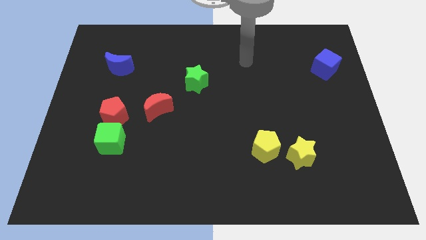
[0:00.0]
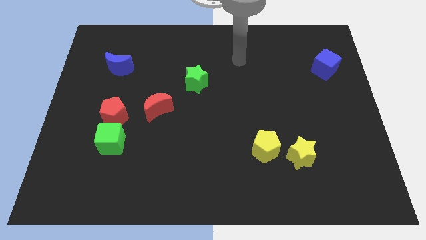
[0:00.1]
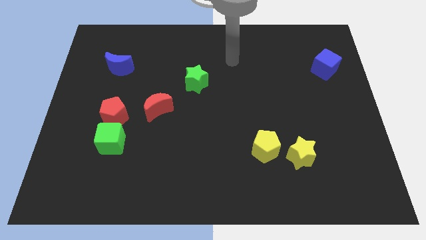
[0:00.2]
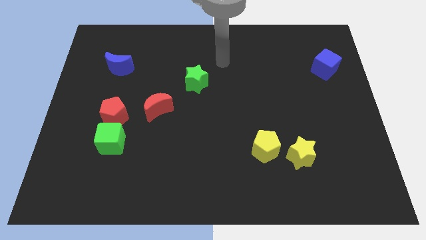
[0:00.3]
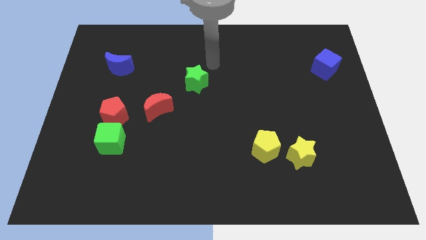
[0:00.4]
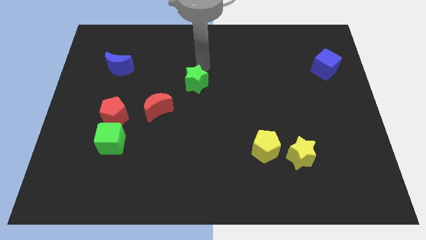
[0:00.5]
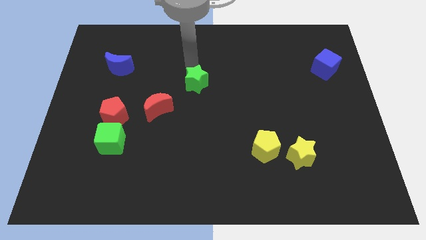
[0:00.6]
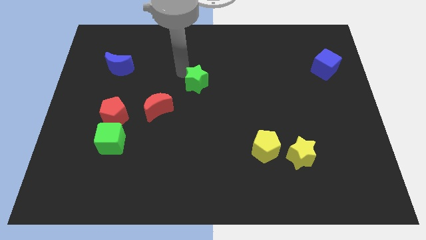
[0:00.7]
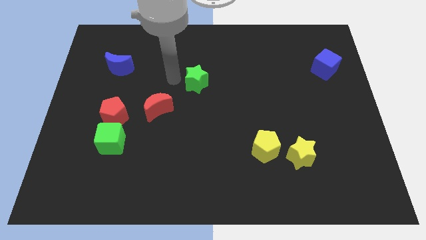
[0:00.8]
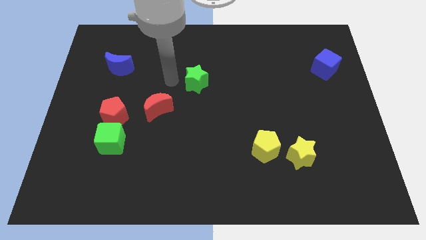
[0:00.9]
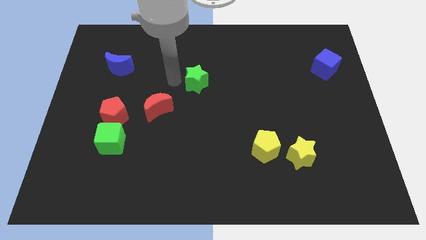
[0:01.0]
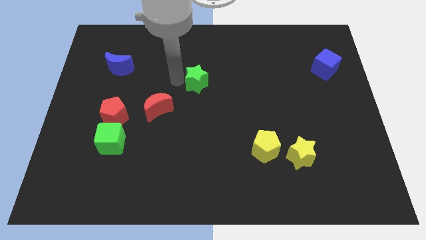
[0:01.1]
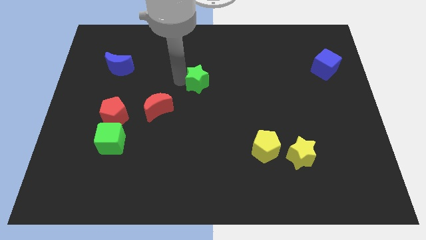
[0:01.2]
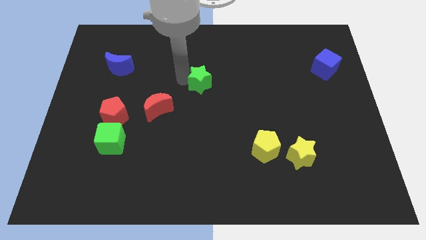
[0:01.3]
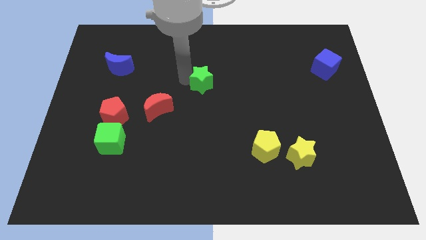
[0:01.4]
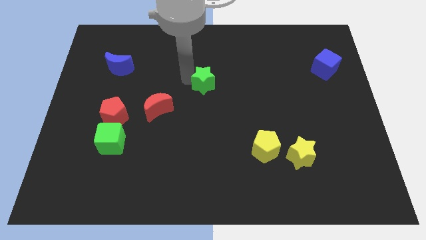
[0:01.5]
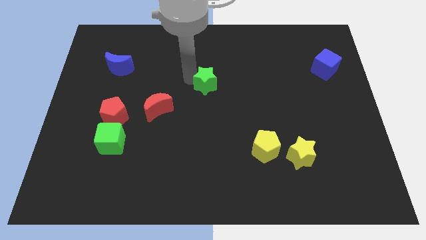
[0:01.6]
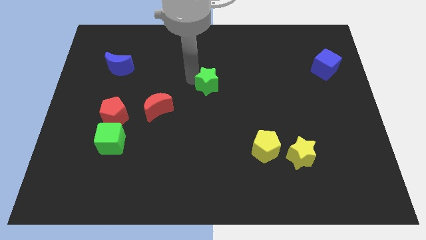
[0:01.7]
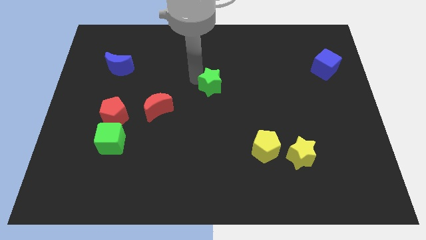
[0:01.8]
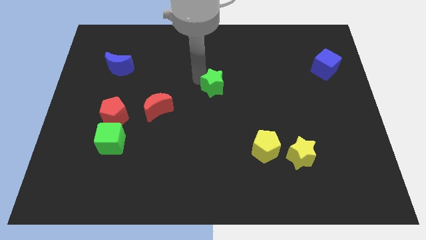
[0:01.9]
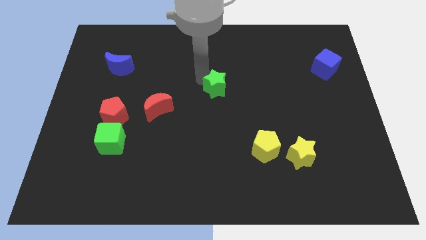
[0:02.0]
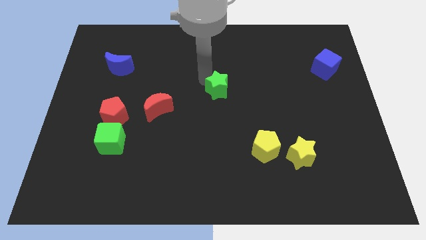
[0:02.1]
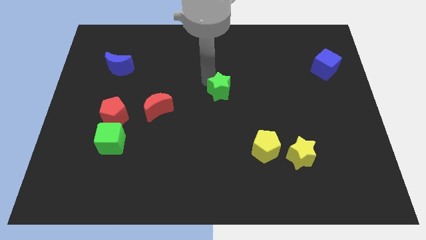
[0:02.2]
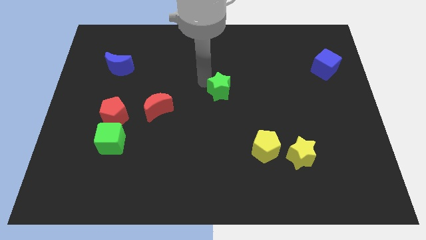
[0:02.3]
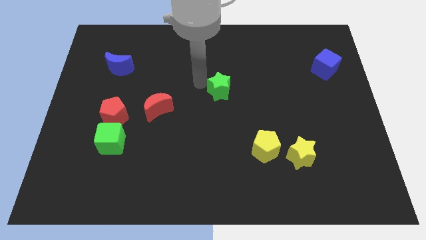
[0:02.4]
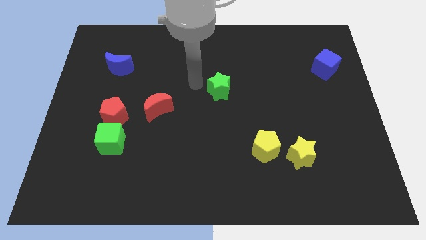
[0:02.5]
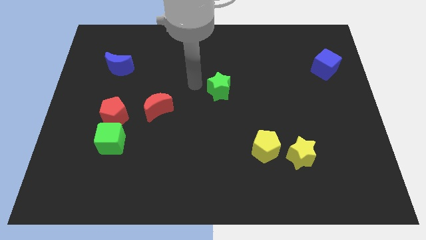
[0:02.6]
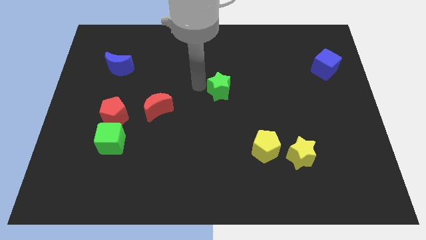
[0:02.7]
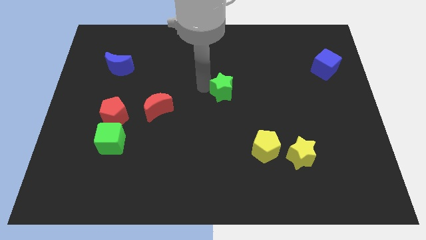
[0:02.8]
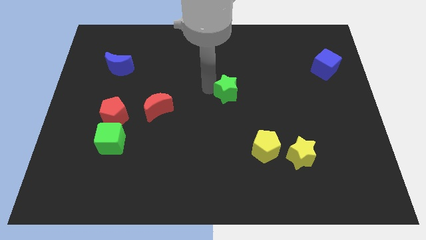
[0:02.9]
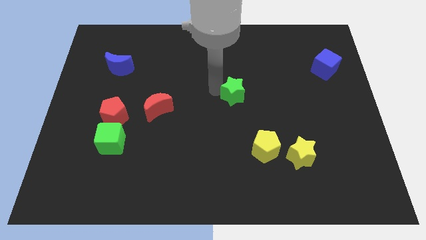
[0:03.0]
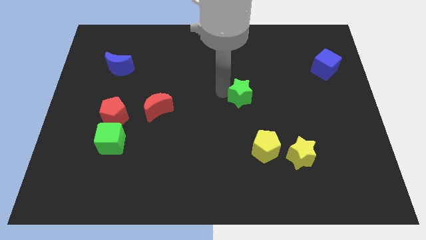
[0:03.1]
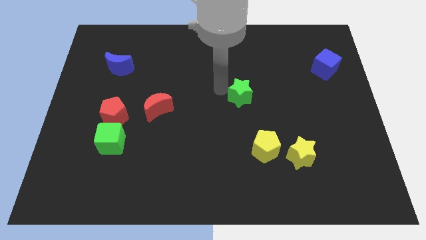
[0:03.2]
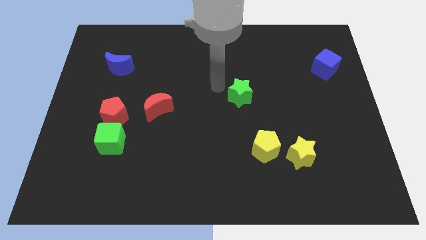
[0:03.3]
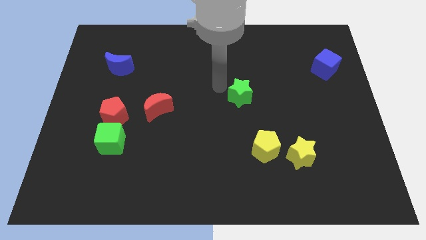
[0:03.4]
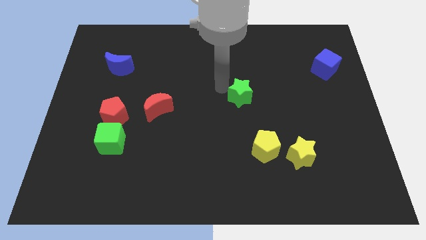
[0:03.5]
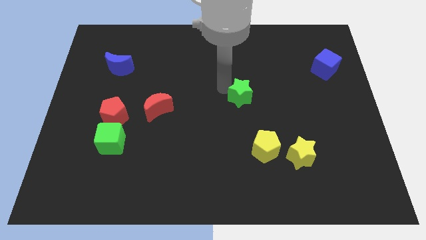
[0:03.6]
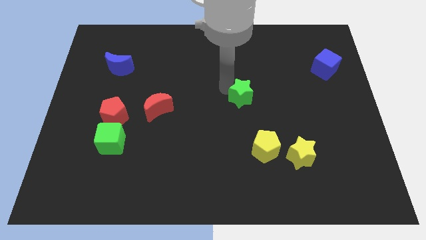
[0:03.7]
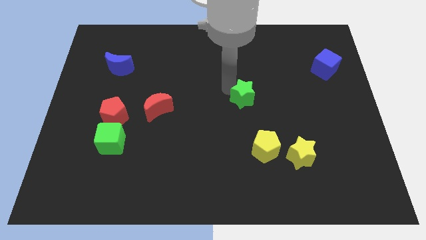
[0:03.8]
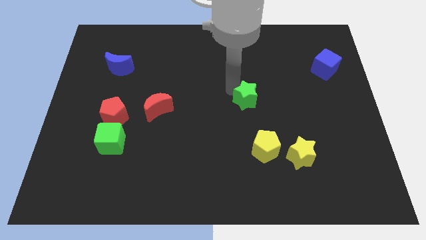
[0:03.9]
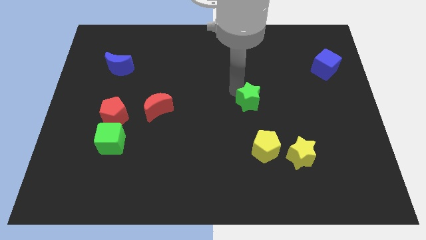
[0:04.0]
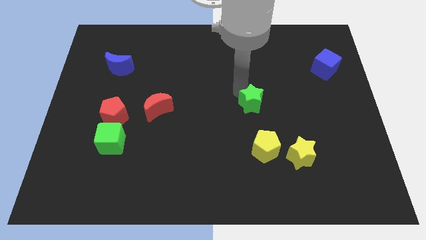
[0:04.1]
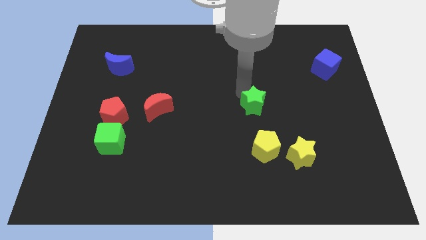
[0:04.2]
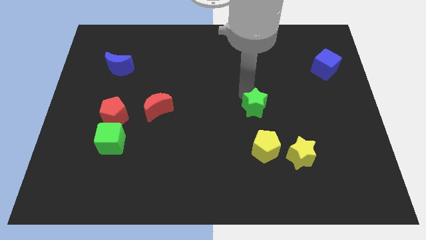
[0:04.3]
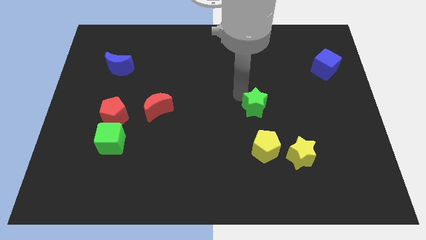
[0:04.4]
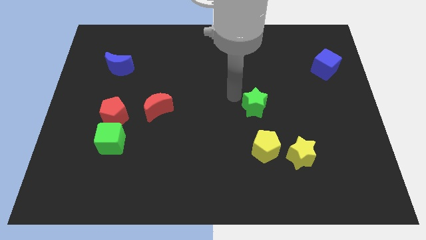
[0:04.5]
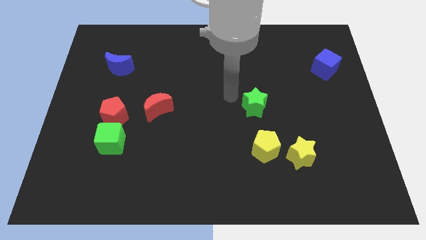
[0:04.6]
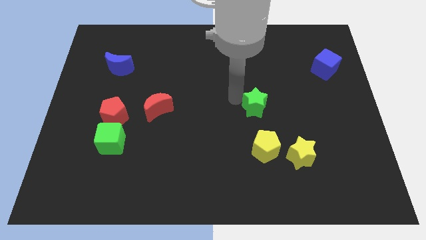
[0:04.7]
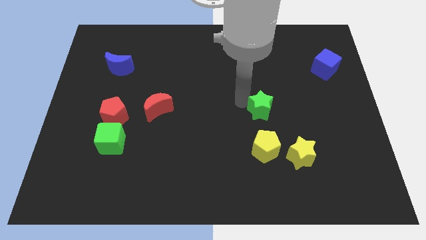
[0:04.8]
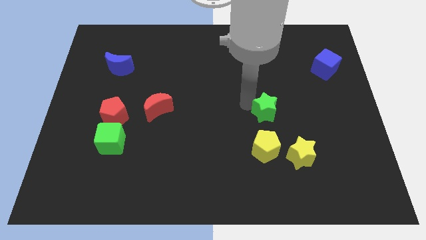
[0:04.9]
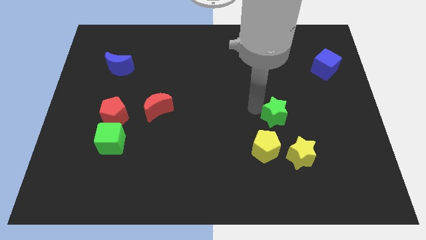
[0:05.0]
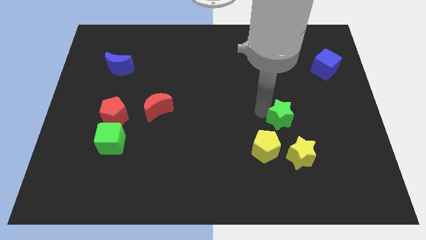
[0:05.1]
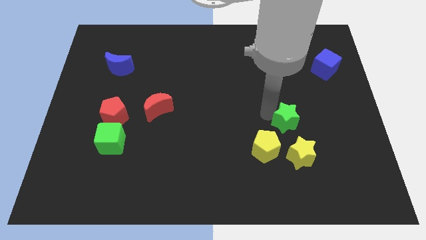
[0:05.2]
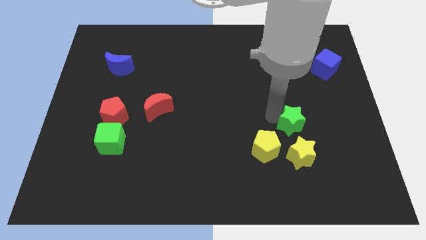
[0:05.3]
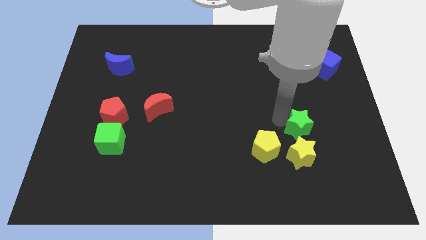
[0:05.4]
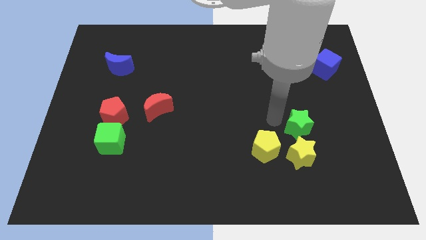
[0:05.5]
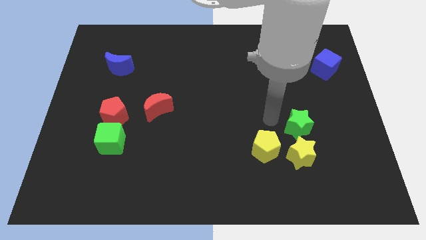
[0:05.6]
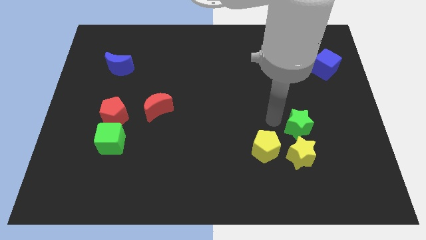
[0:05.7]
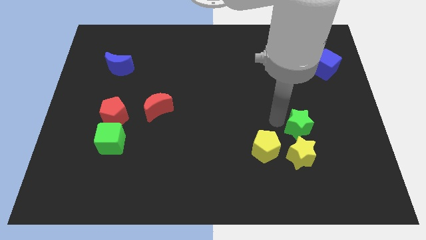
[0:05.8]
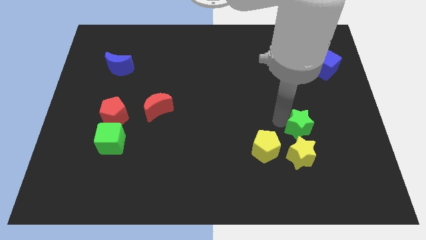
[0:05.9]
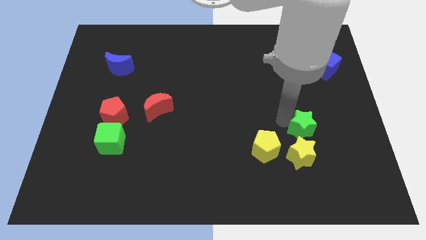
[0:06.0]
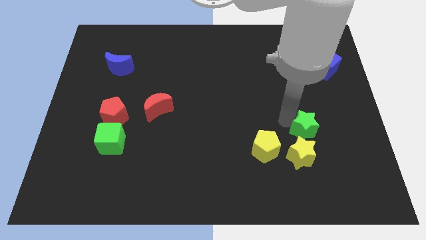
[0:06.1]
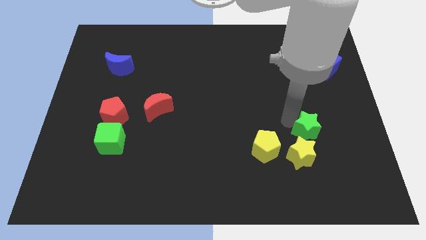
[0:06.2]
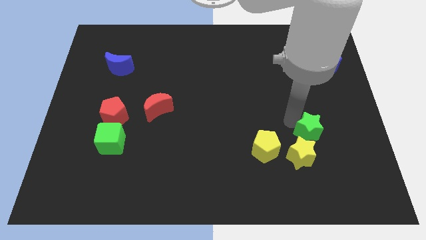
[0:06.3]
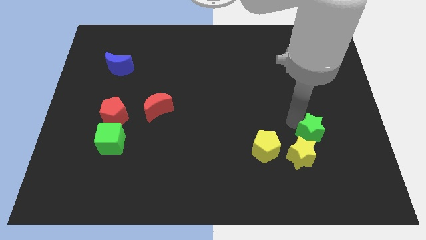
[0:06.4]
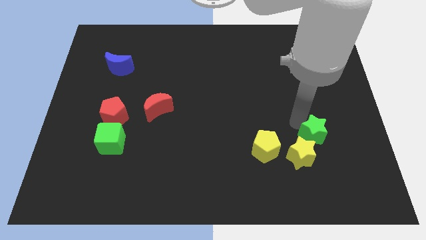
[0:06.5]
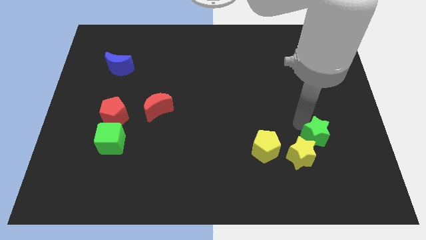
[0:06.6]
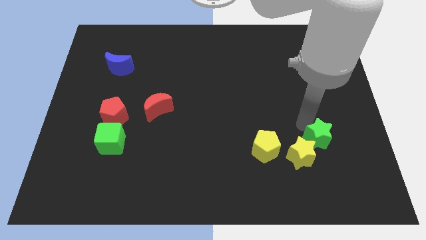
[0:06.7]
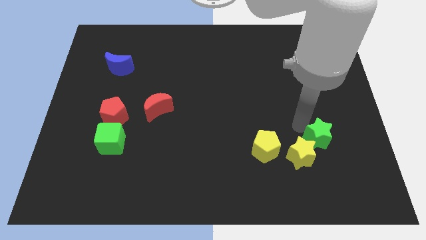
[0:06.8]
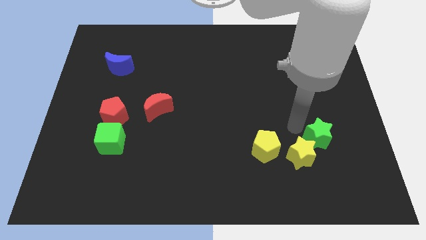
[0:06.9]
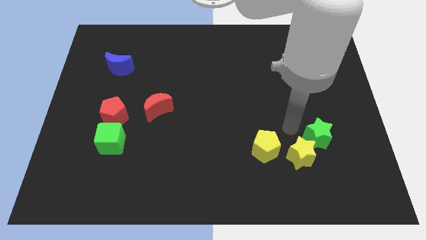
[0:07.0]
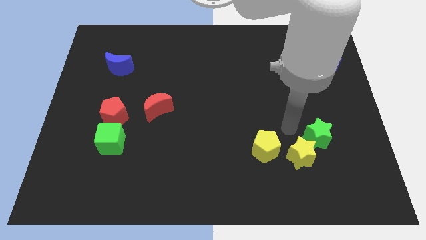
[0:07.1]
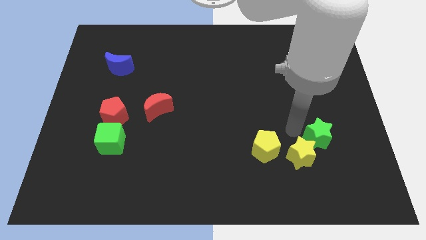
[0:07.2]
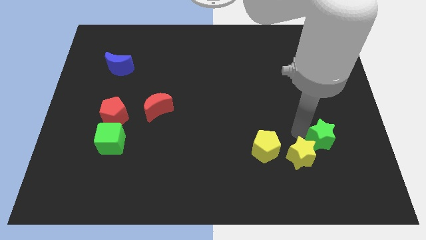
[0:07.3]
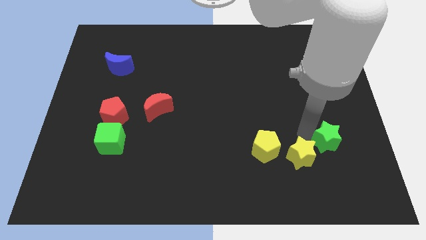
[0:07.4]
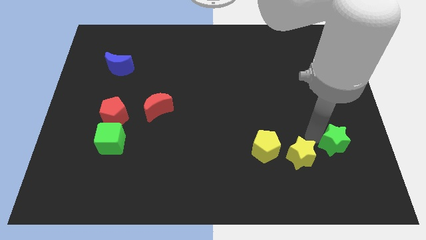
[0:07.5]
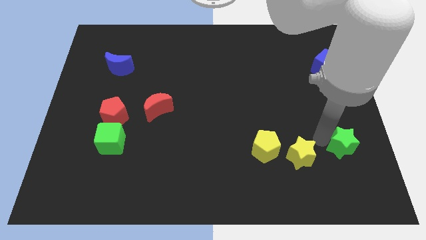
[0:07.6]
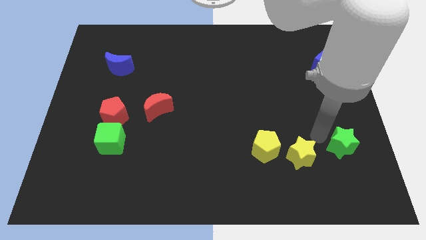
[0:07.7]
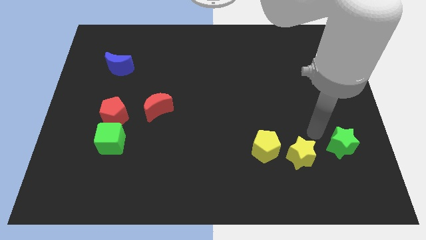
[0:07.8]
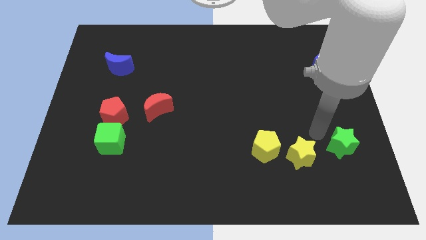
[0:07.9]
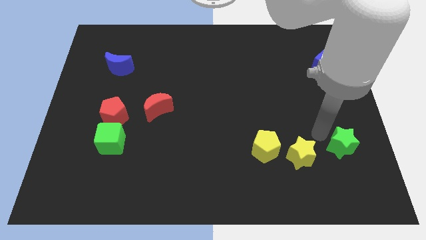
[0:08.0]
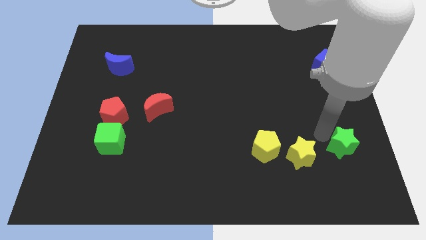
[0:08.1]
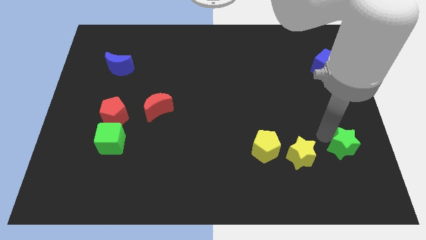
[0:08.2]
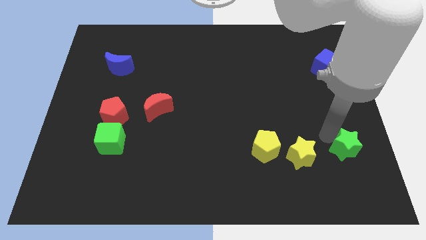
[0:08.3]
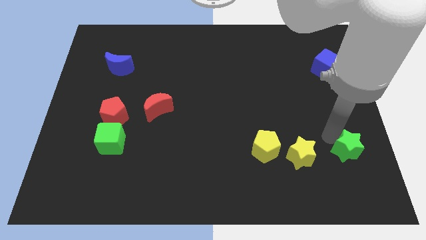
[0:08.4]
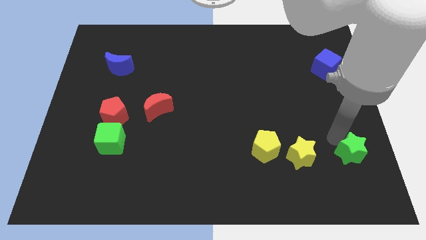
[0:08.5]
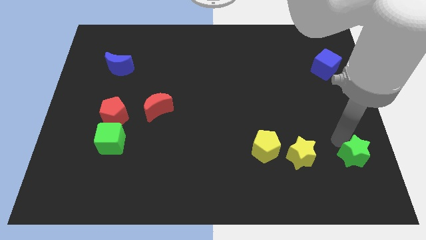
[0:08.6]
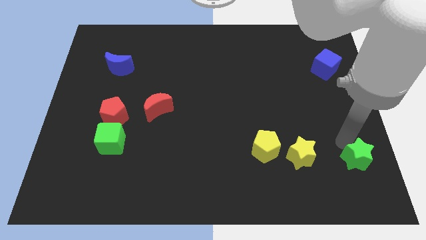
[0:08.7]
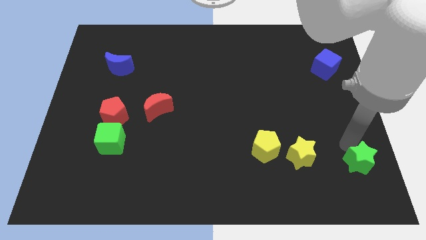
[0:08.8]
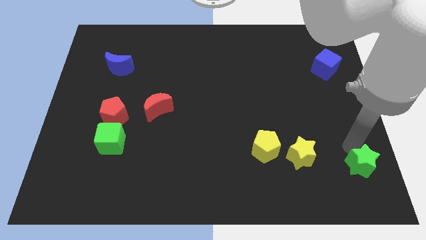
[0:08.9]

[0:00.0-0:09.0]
move the green star to the bottom right
